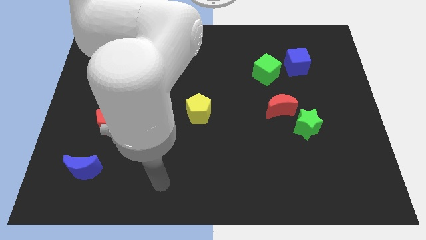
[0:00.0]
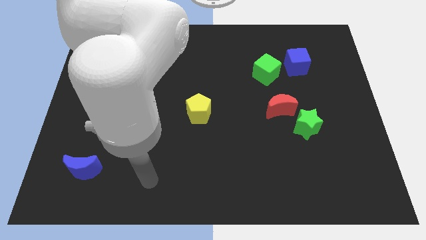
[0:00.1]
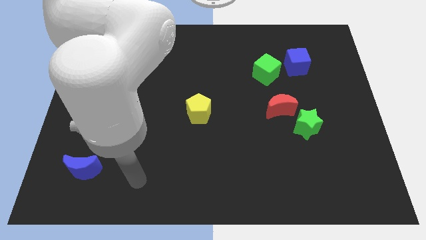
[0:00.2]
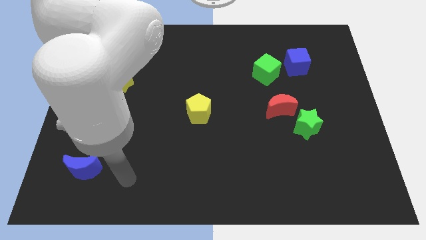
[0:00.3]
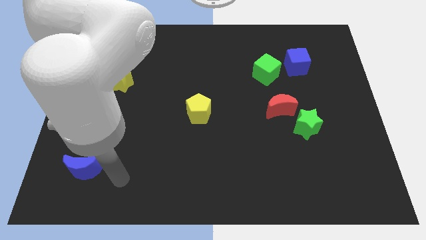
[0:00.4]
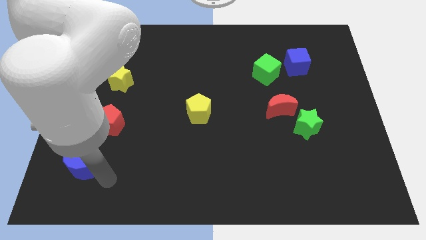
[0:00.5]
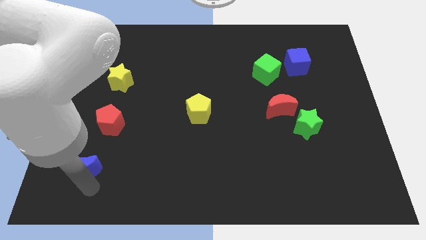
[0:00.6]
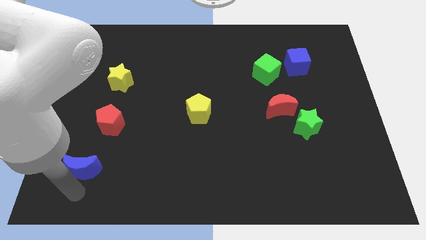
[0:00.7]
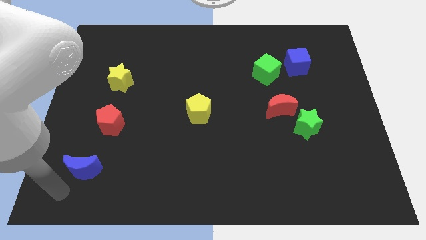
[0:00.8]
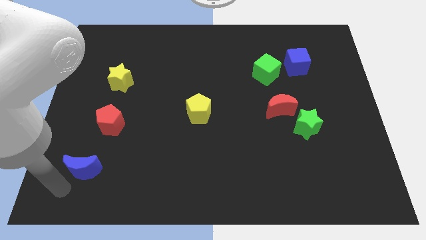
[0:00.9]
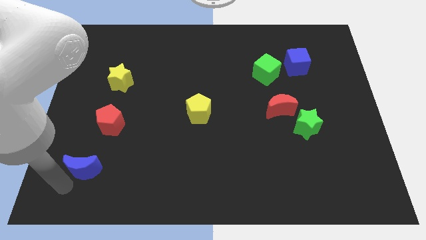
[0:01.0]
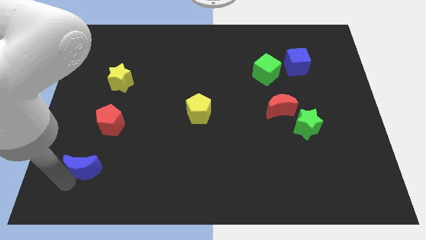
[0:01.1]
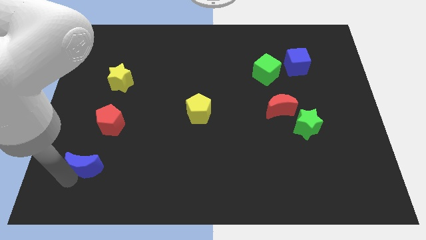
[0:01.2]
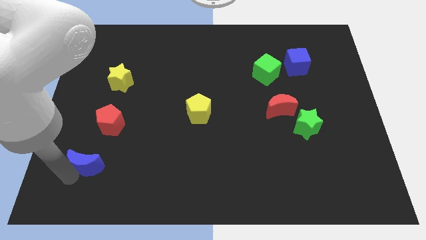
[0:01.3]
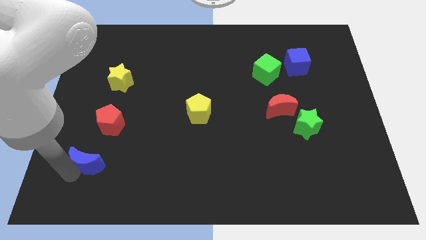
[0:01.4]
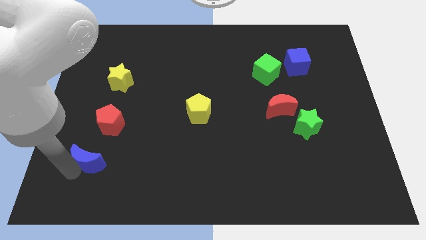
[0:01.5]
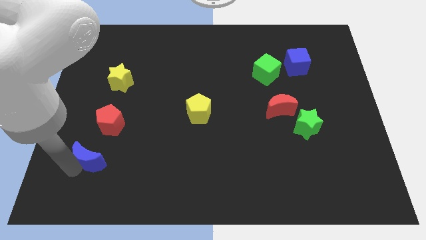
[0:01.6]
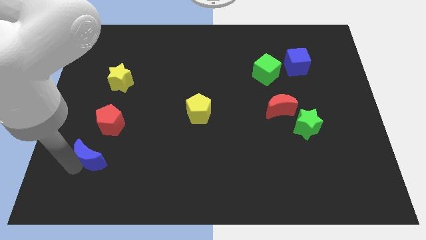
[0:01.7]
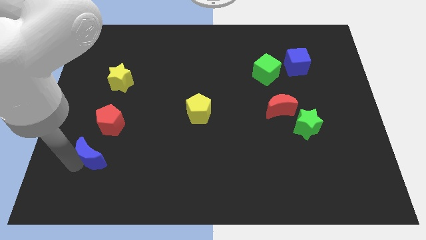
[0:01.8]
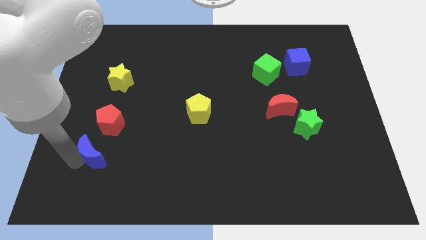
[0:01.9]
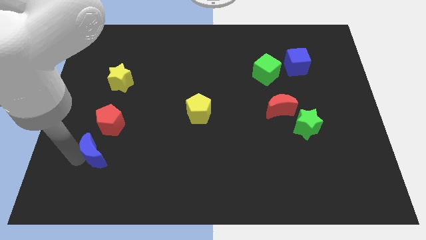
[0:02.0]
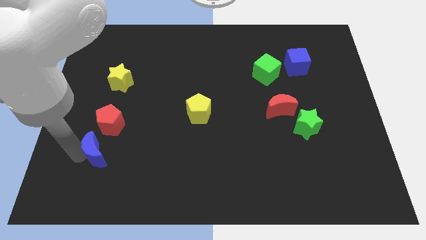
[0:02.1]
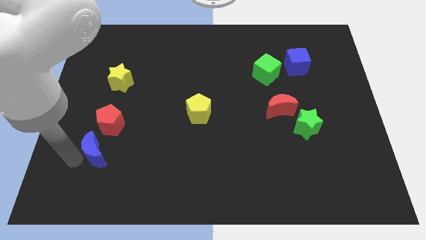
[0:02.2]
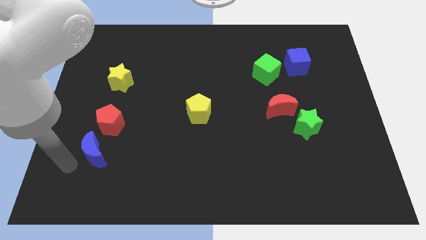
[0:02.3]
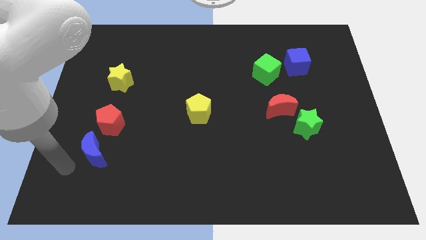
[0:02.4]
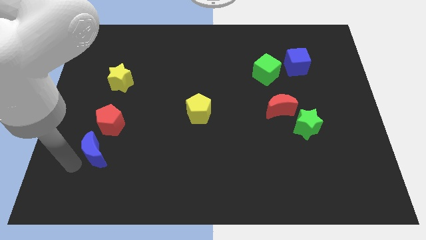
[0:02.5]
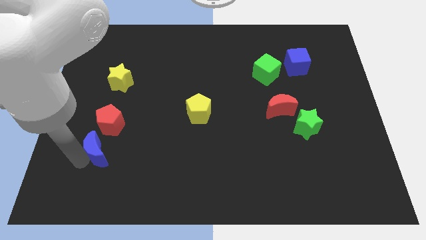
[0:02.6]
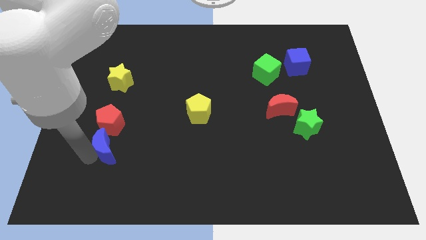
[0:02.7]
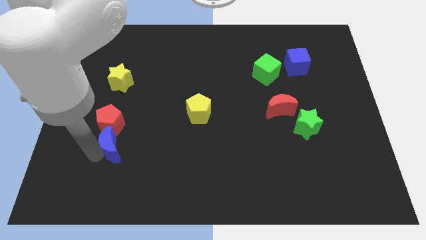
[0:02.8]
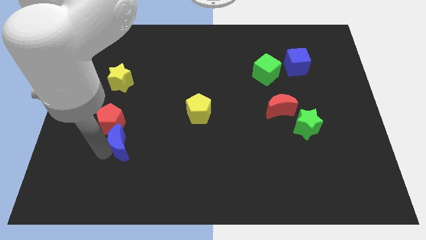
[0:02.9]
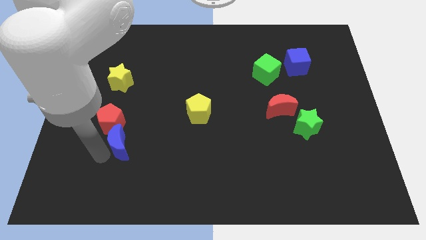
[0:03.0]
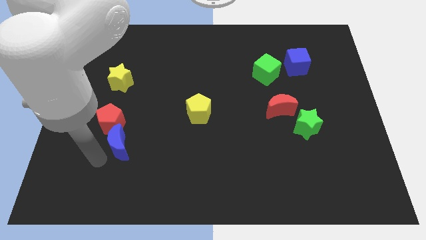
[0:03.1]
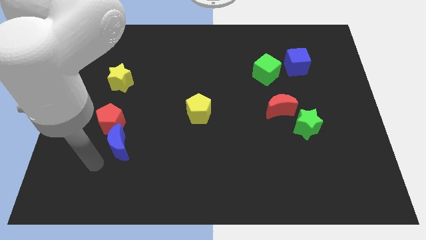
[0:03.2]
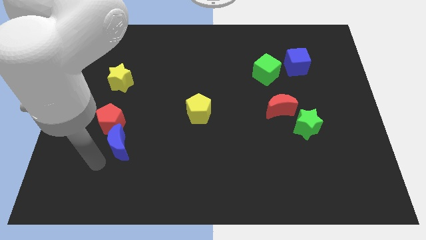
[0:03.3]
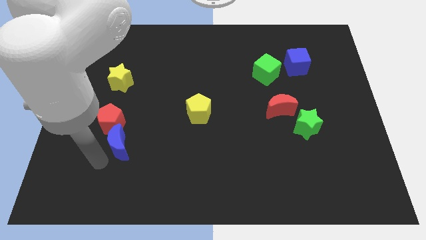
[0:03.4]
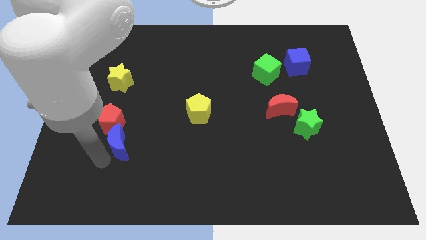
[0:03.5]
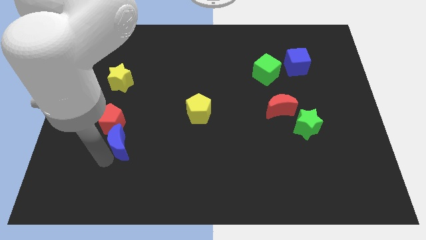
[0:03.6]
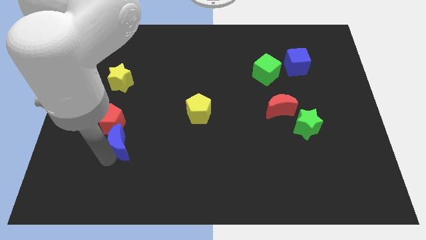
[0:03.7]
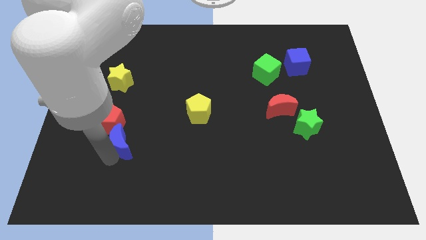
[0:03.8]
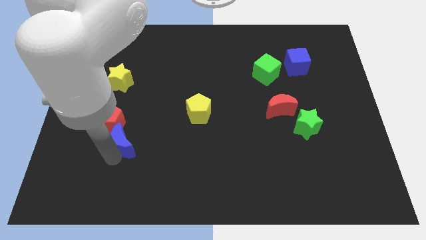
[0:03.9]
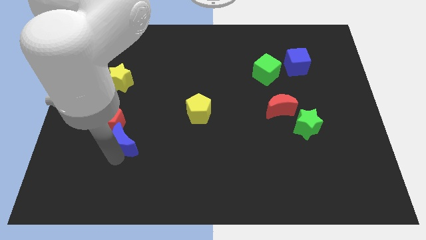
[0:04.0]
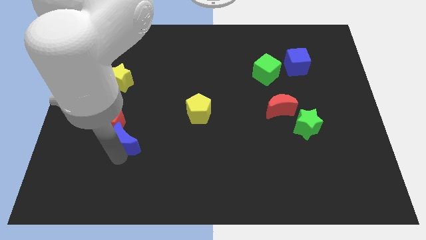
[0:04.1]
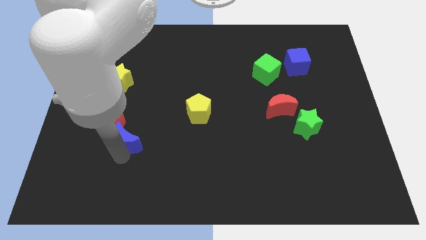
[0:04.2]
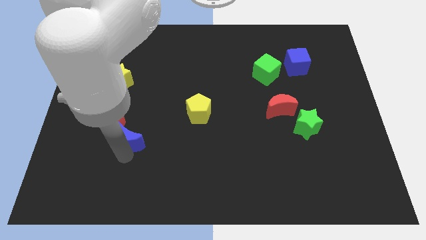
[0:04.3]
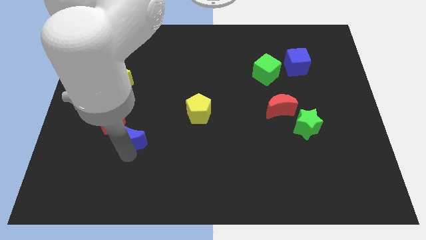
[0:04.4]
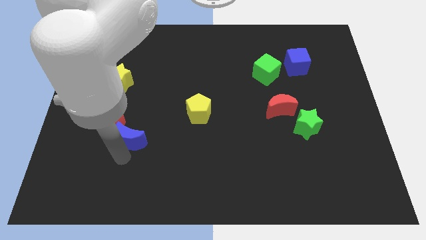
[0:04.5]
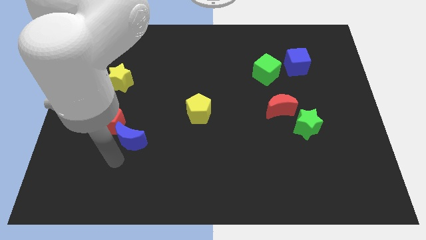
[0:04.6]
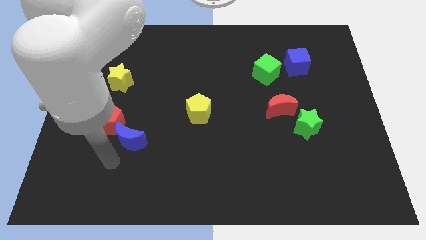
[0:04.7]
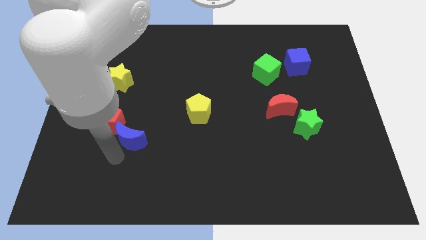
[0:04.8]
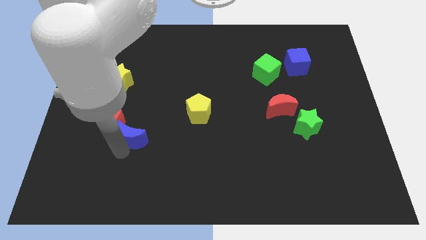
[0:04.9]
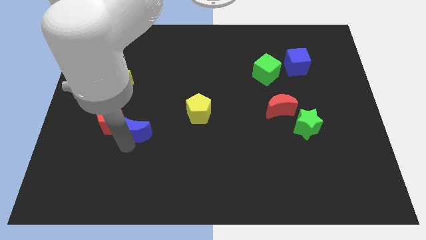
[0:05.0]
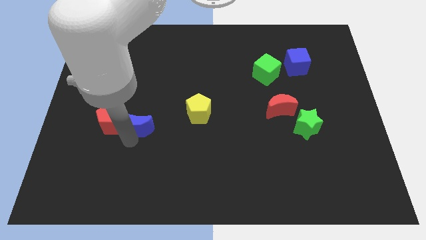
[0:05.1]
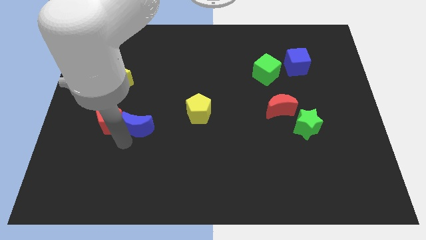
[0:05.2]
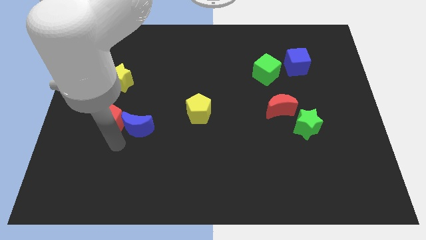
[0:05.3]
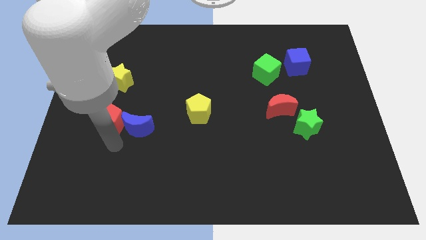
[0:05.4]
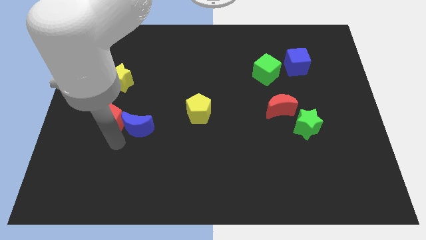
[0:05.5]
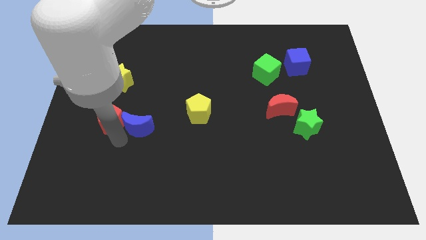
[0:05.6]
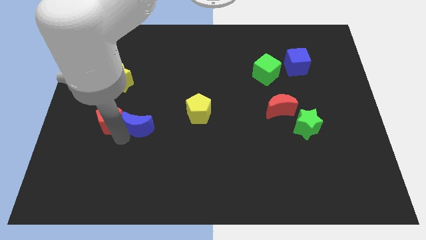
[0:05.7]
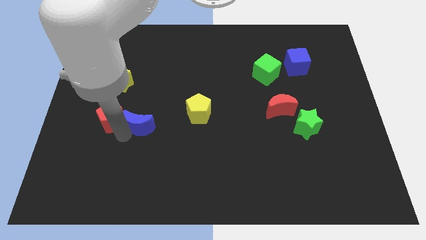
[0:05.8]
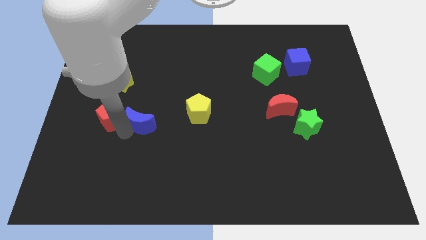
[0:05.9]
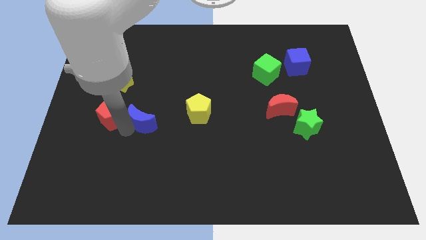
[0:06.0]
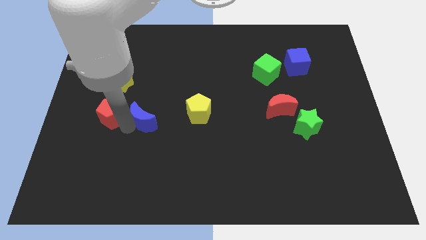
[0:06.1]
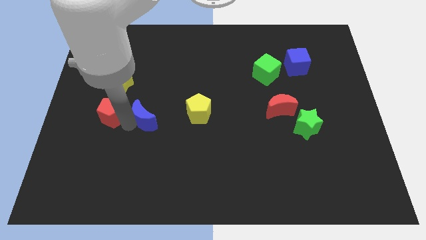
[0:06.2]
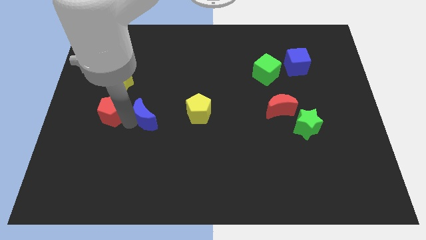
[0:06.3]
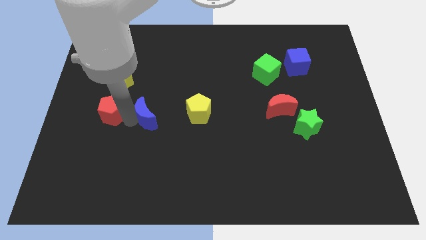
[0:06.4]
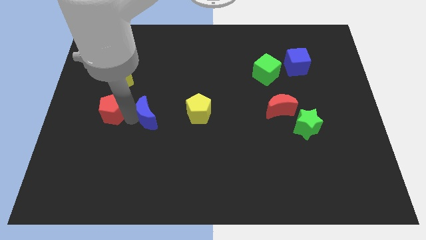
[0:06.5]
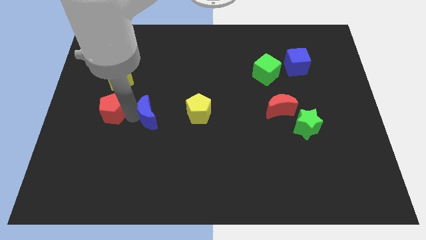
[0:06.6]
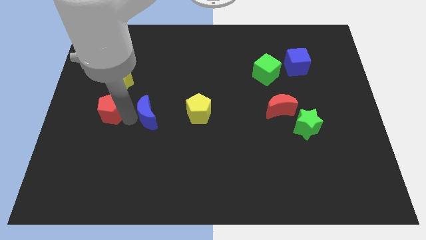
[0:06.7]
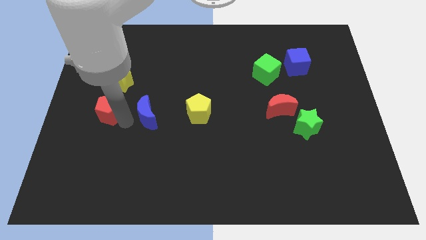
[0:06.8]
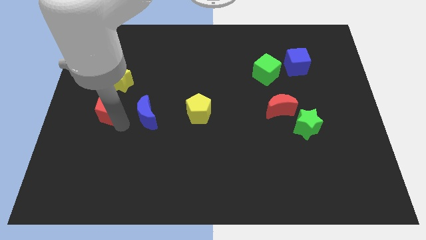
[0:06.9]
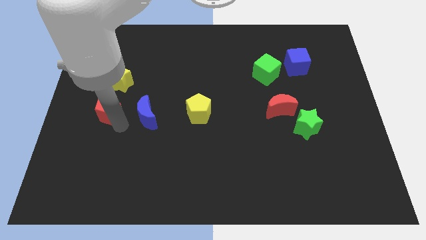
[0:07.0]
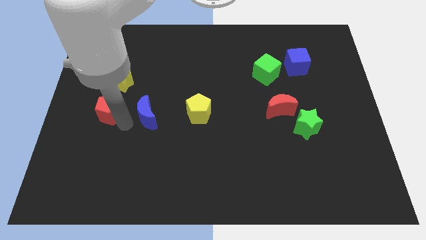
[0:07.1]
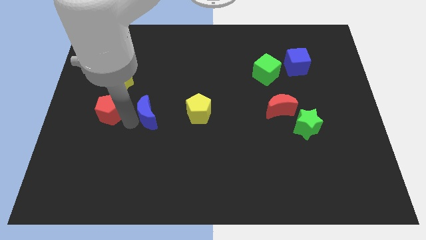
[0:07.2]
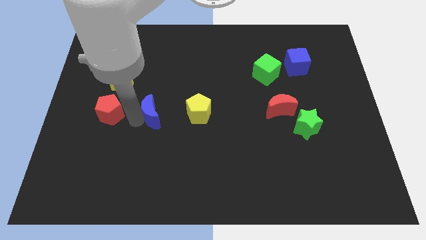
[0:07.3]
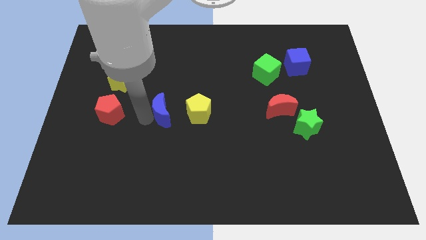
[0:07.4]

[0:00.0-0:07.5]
slide the blue moon upwards and right

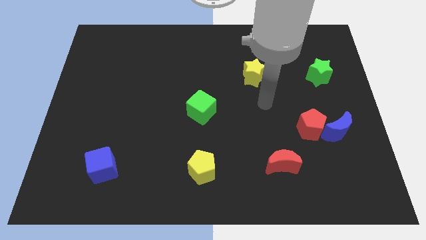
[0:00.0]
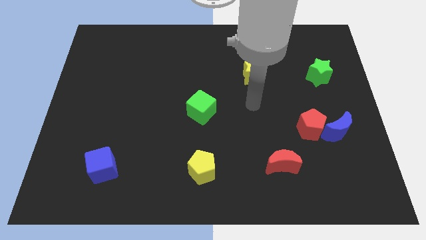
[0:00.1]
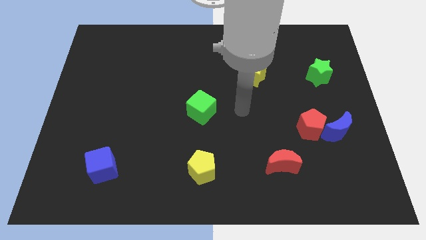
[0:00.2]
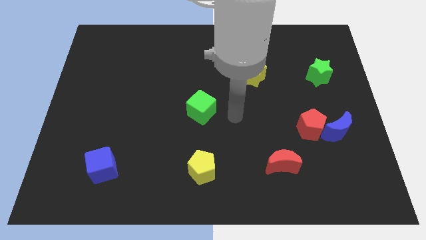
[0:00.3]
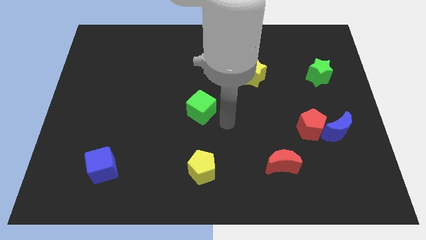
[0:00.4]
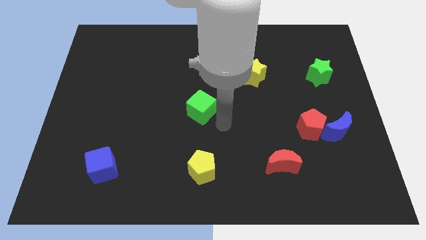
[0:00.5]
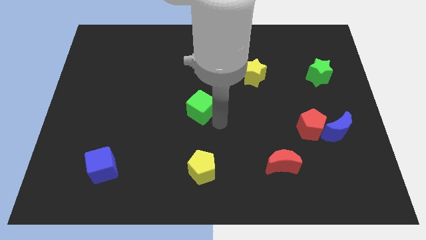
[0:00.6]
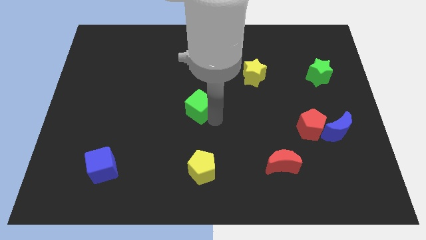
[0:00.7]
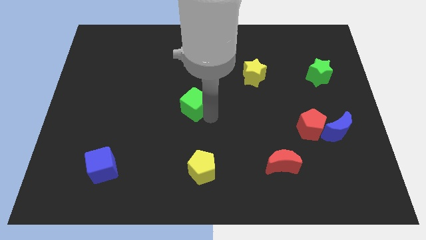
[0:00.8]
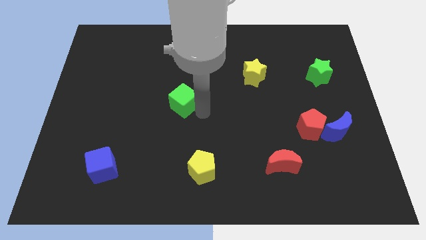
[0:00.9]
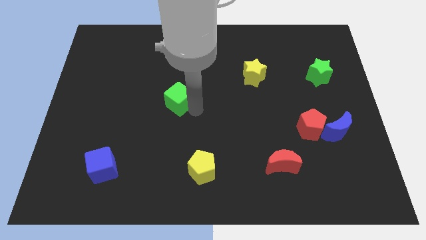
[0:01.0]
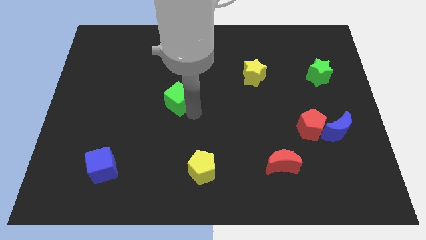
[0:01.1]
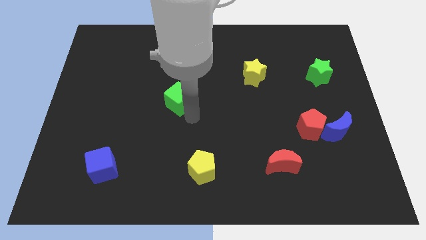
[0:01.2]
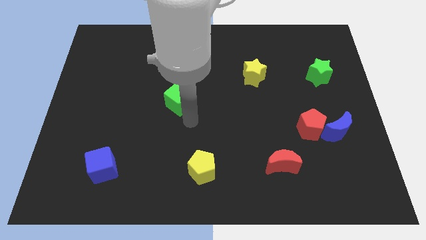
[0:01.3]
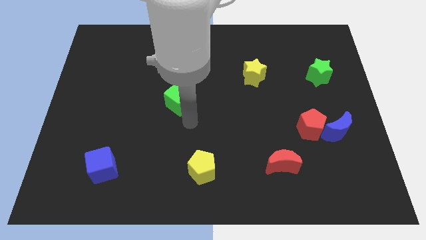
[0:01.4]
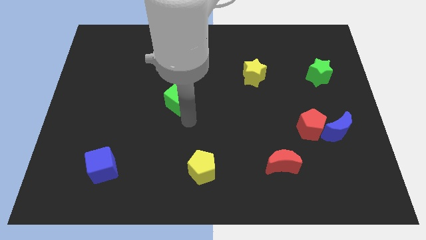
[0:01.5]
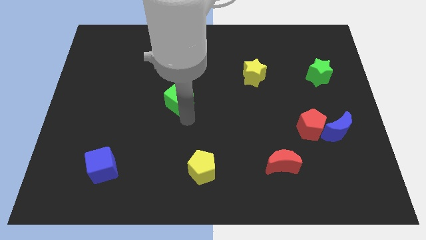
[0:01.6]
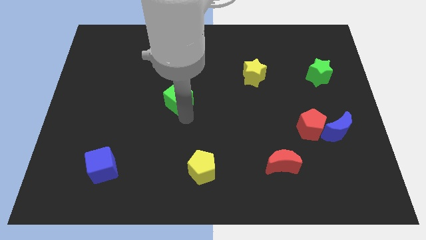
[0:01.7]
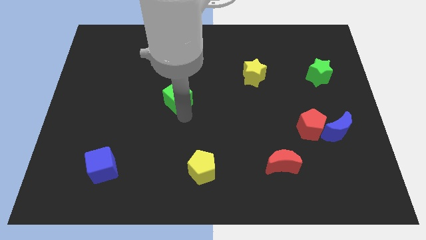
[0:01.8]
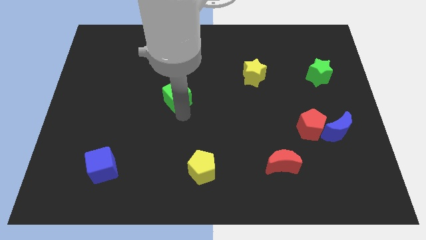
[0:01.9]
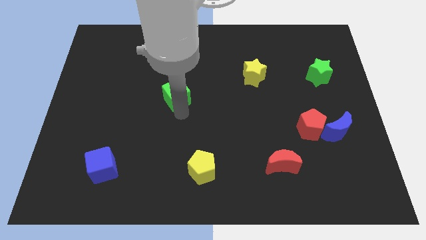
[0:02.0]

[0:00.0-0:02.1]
slightly move the green cube up and to the left diagonally
